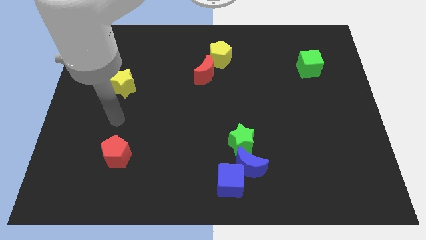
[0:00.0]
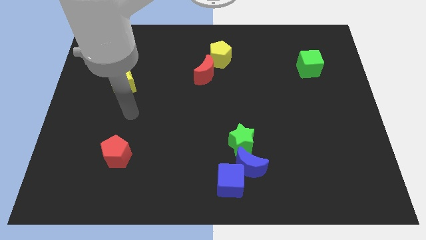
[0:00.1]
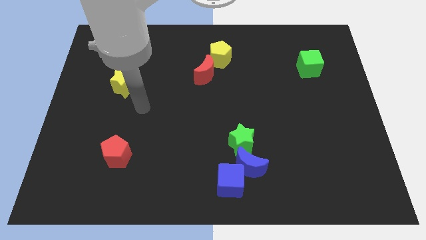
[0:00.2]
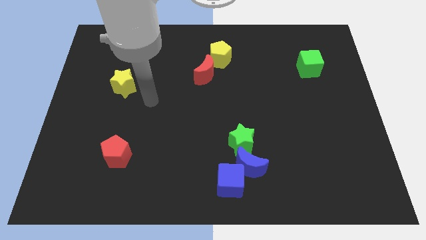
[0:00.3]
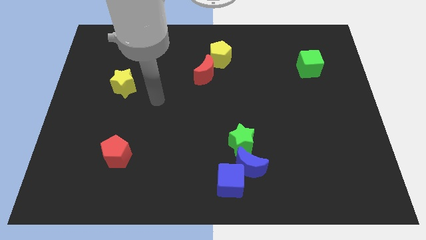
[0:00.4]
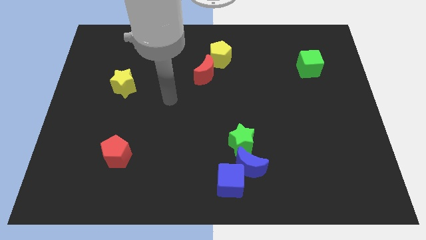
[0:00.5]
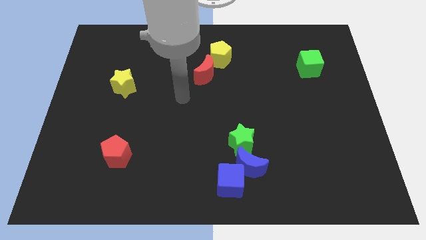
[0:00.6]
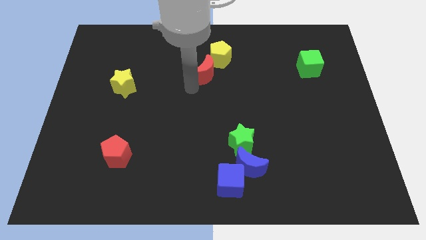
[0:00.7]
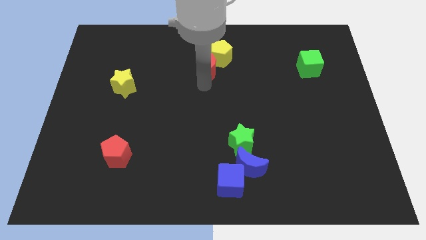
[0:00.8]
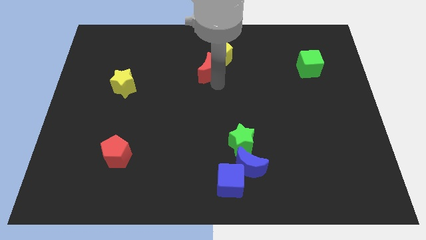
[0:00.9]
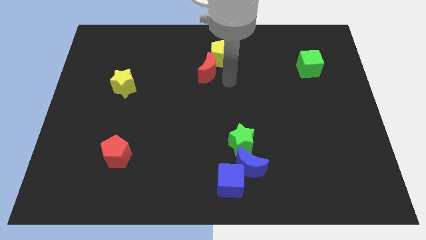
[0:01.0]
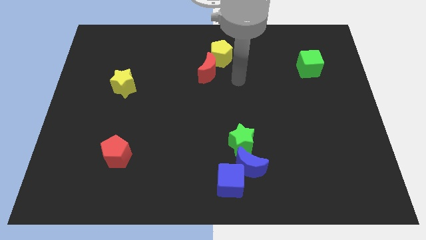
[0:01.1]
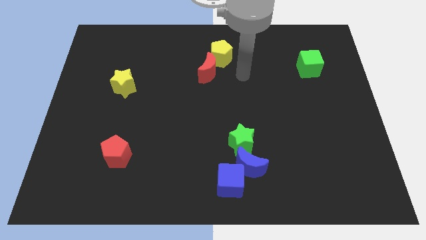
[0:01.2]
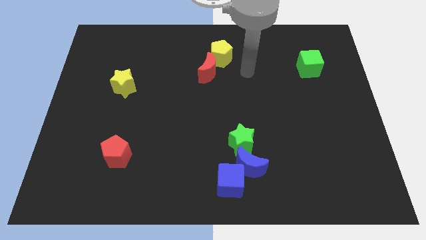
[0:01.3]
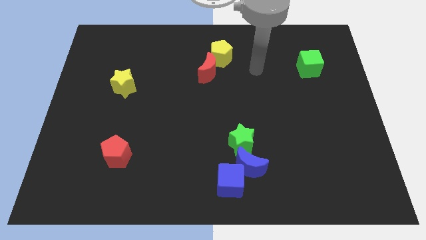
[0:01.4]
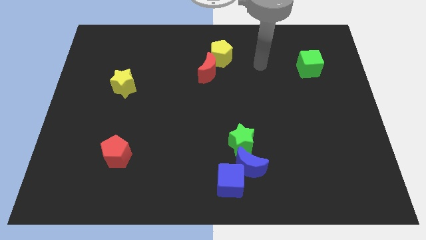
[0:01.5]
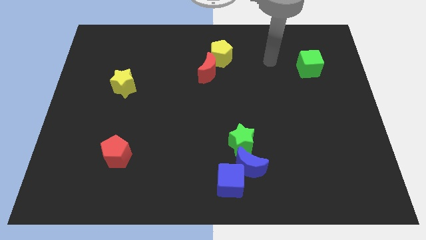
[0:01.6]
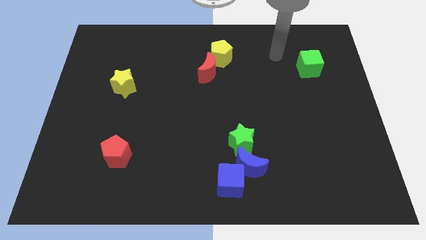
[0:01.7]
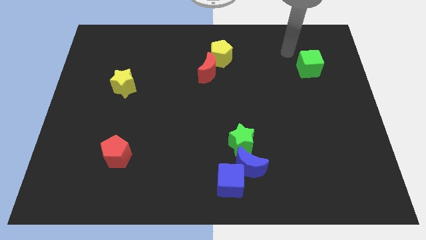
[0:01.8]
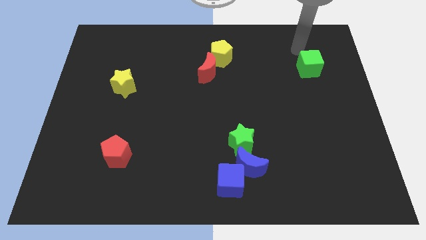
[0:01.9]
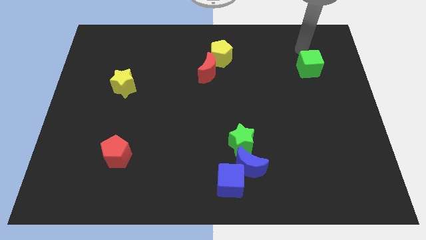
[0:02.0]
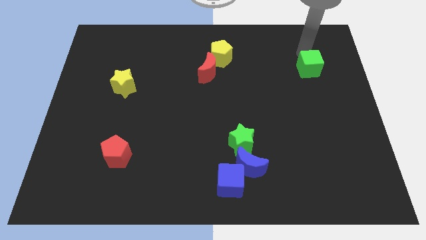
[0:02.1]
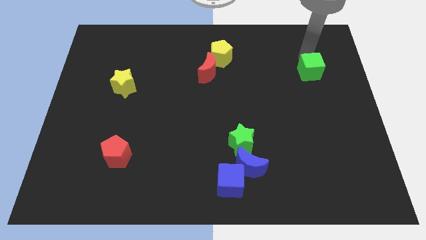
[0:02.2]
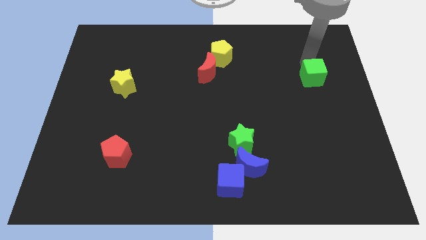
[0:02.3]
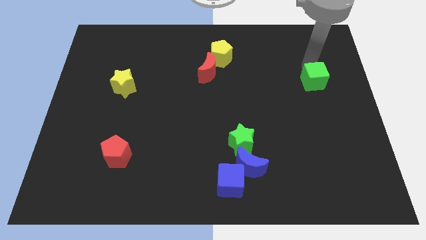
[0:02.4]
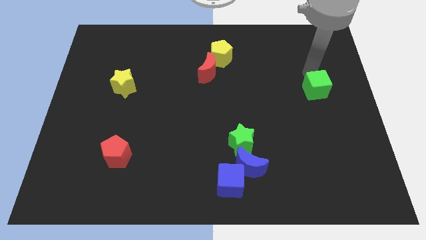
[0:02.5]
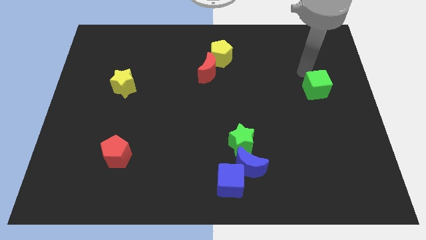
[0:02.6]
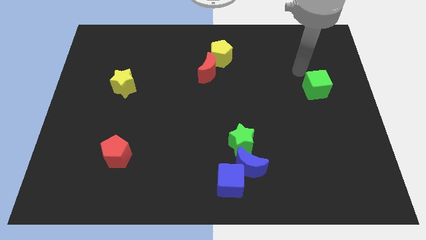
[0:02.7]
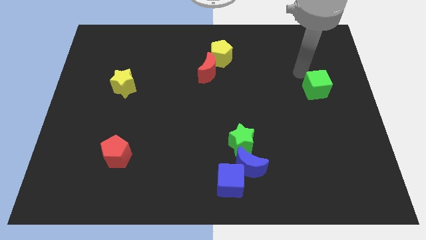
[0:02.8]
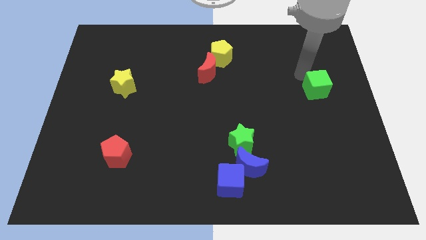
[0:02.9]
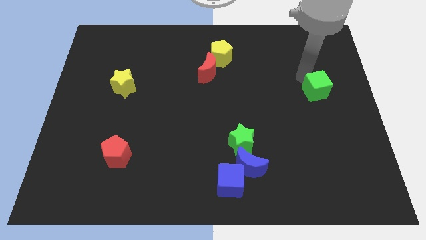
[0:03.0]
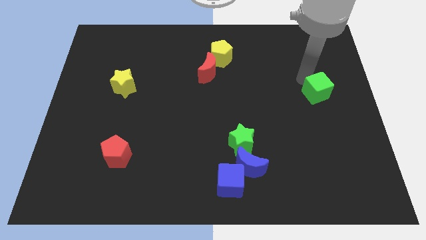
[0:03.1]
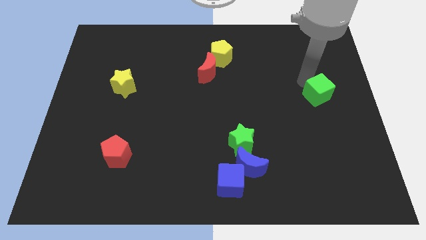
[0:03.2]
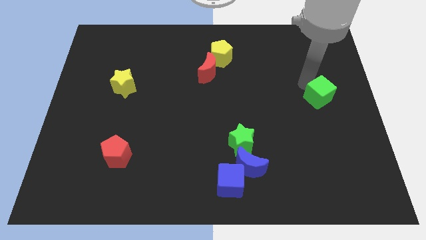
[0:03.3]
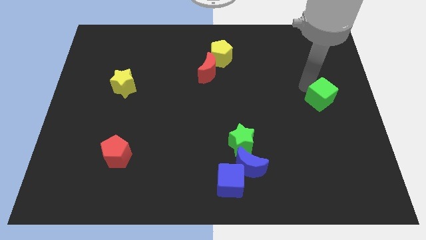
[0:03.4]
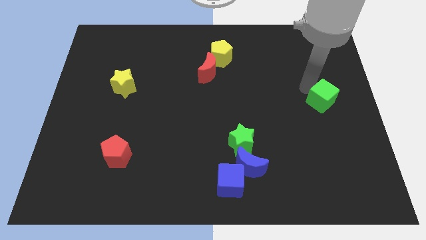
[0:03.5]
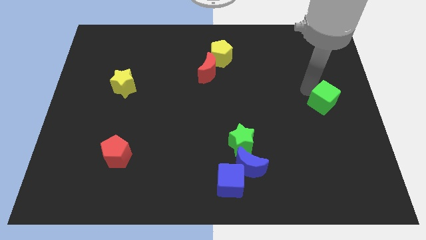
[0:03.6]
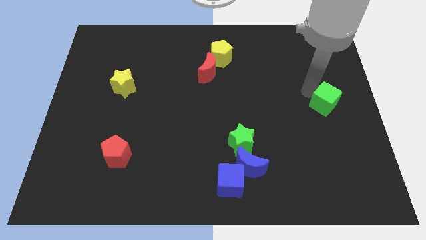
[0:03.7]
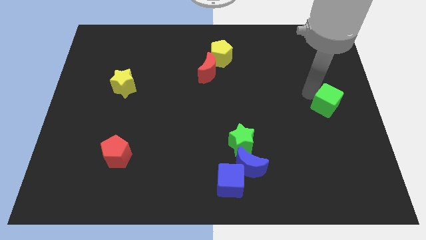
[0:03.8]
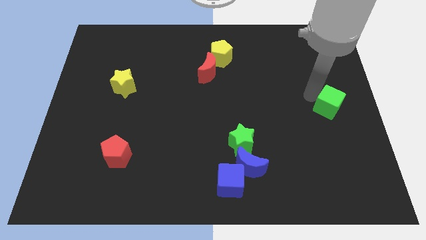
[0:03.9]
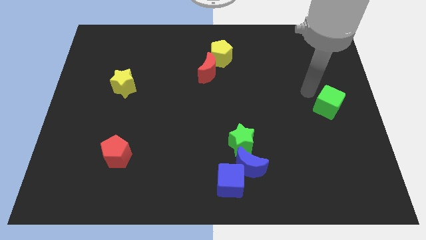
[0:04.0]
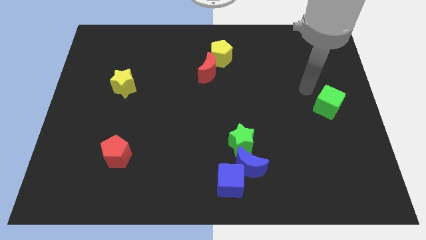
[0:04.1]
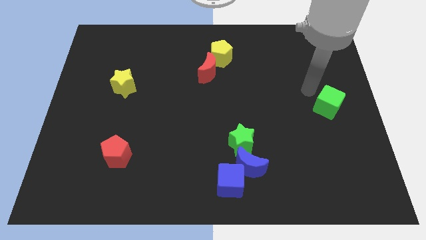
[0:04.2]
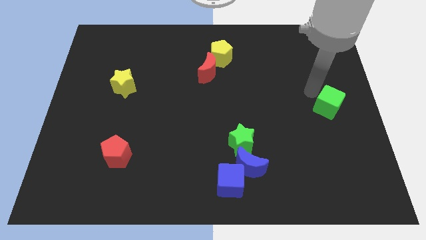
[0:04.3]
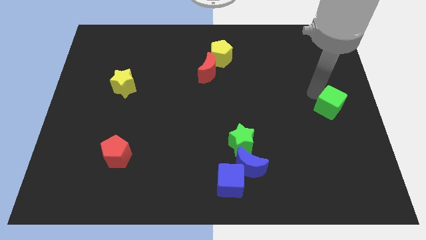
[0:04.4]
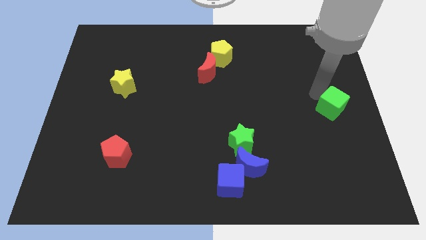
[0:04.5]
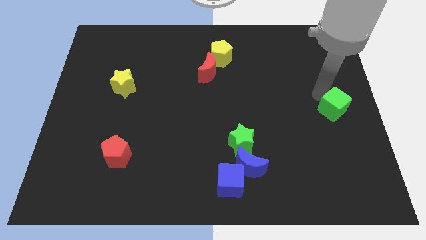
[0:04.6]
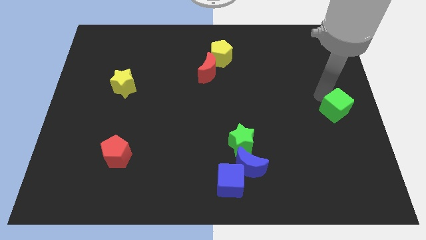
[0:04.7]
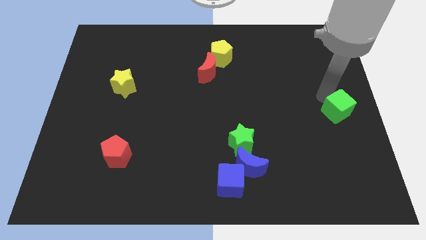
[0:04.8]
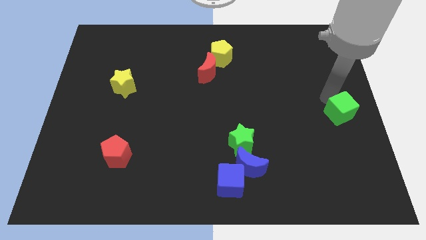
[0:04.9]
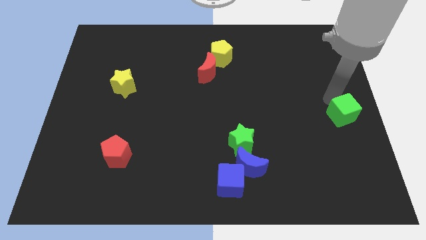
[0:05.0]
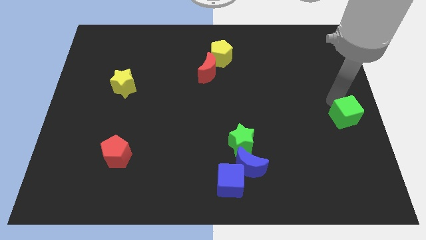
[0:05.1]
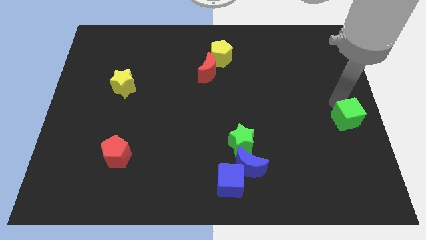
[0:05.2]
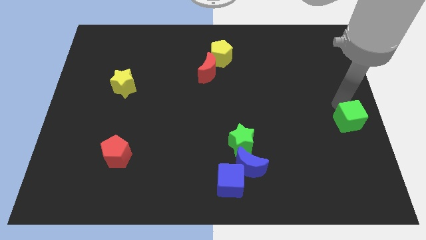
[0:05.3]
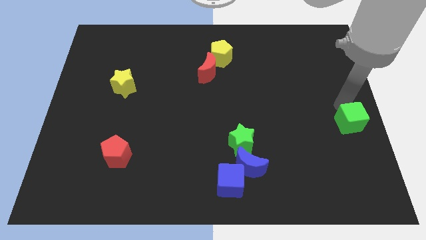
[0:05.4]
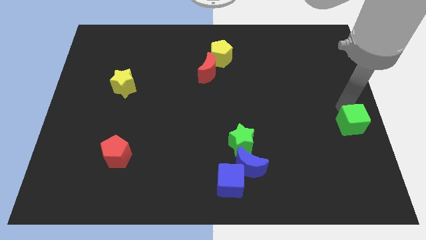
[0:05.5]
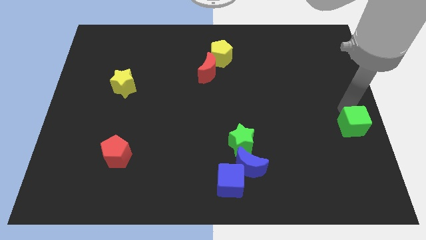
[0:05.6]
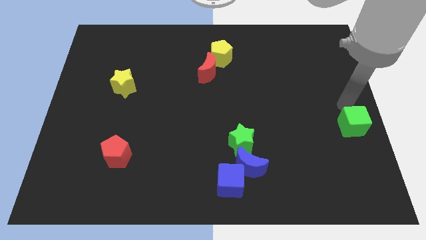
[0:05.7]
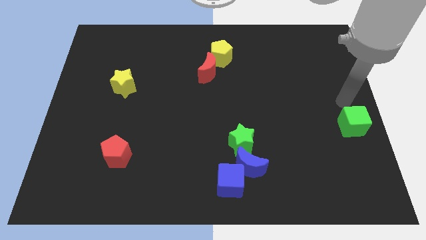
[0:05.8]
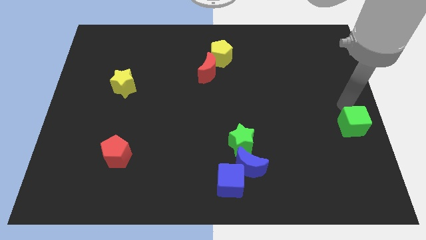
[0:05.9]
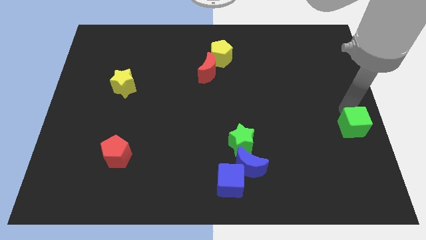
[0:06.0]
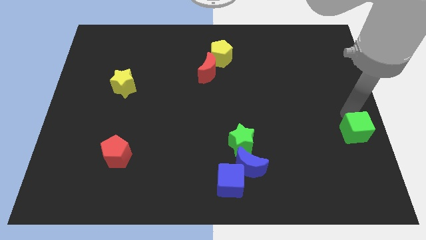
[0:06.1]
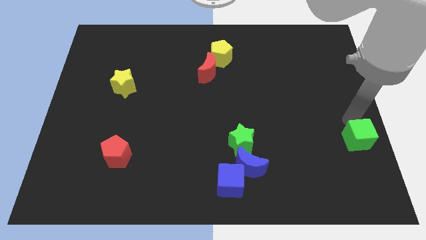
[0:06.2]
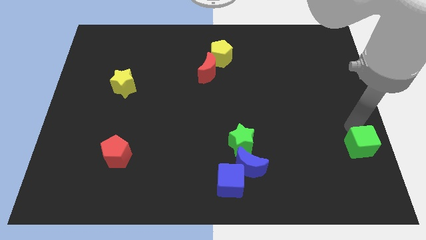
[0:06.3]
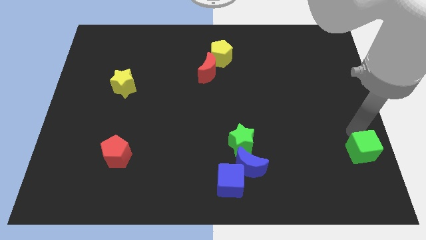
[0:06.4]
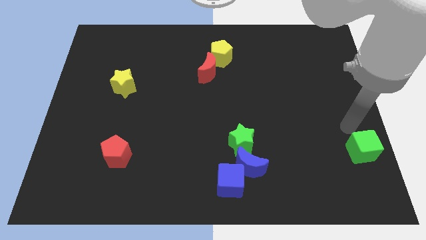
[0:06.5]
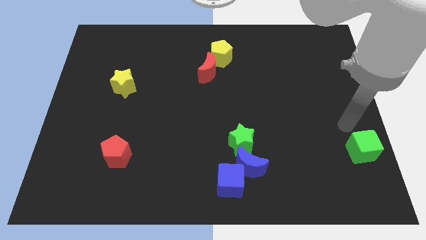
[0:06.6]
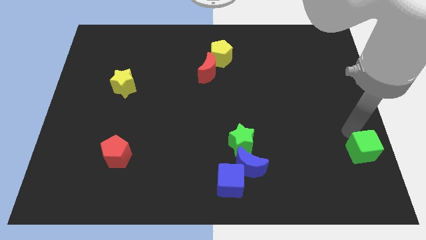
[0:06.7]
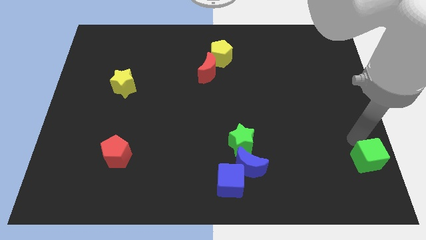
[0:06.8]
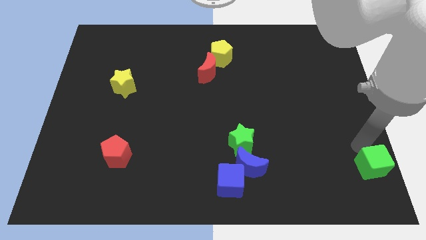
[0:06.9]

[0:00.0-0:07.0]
move the green cube to the bottom right
